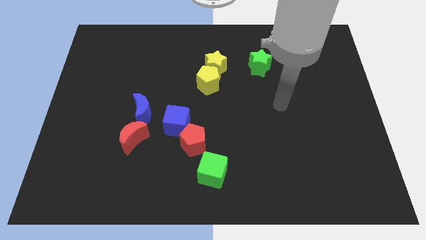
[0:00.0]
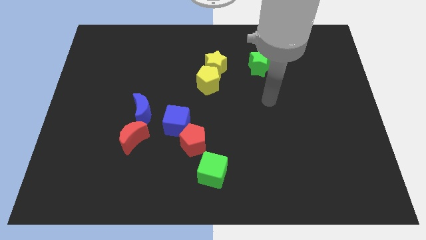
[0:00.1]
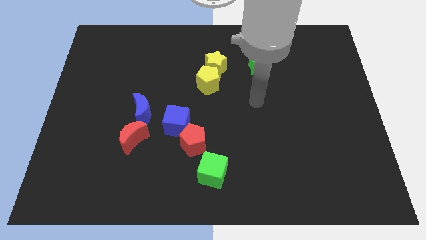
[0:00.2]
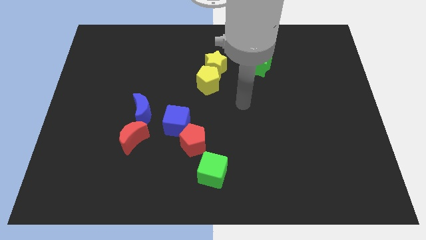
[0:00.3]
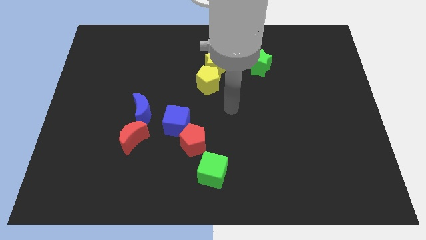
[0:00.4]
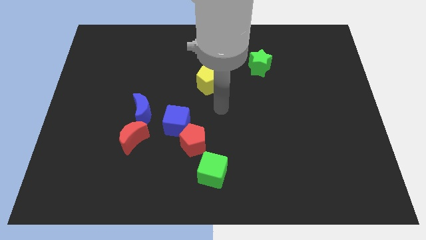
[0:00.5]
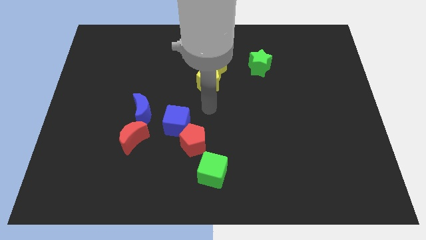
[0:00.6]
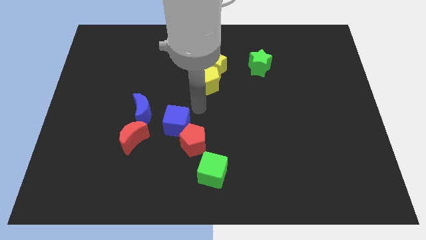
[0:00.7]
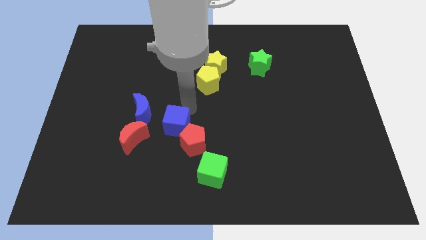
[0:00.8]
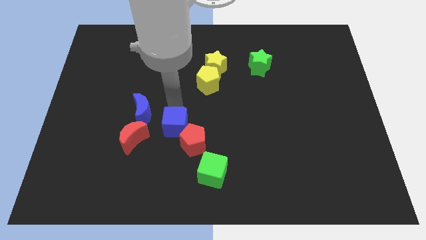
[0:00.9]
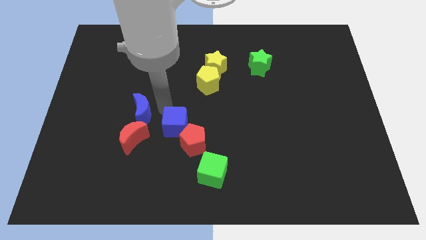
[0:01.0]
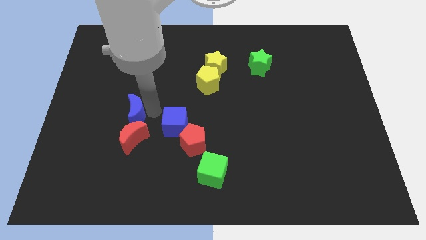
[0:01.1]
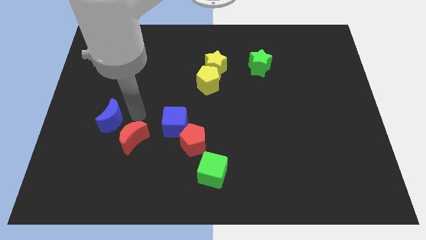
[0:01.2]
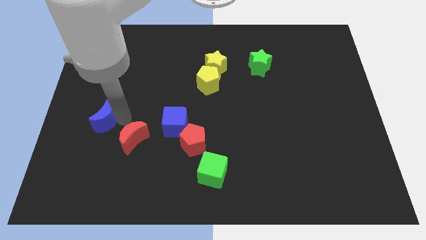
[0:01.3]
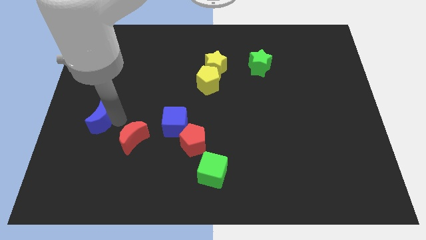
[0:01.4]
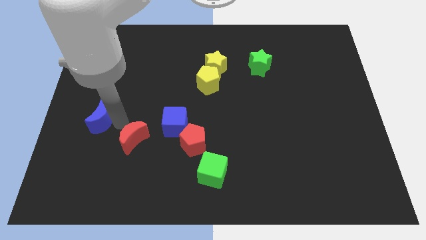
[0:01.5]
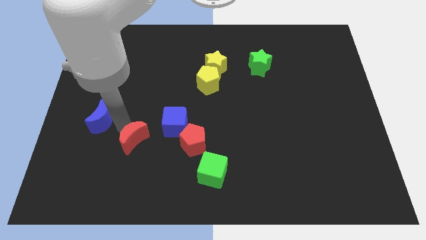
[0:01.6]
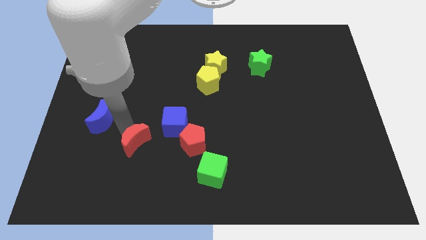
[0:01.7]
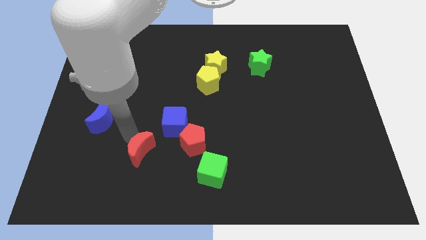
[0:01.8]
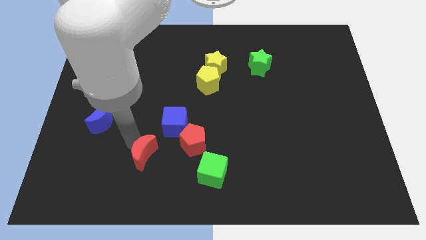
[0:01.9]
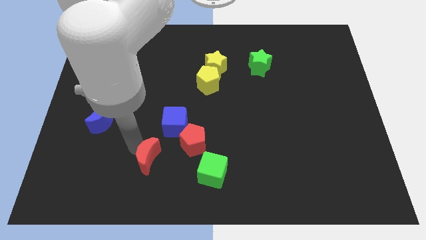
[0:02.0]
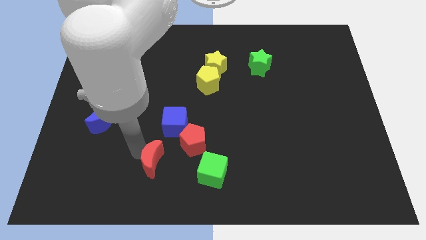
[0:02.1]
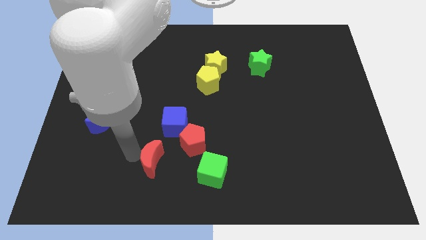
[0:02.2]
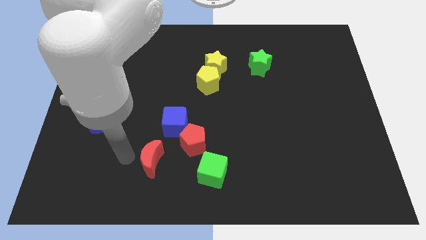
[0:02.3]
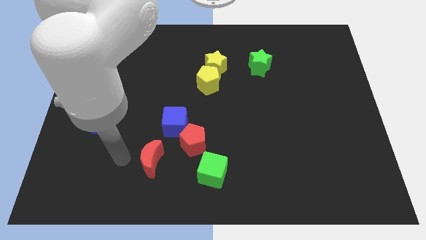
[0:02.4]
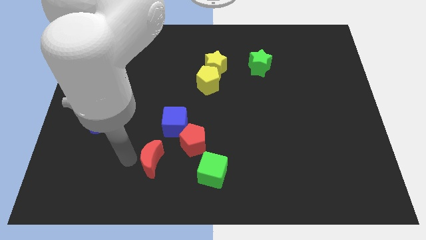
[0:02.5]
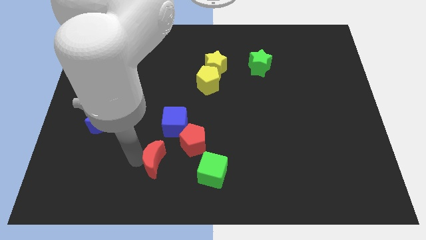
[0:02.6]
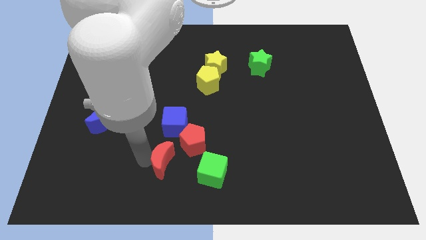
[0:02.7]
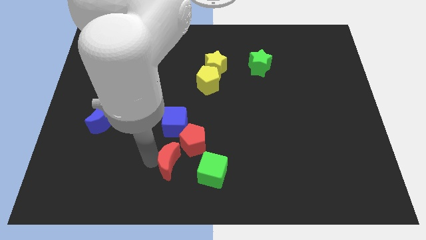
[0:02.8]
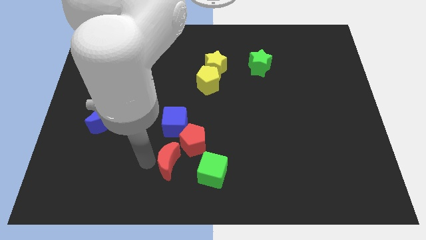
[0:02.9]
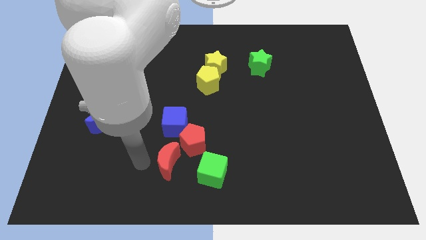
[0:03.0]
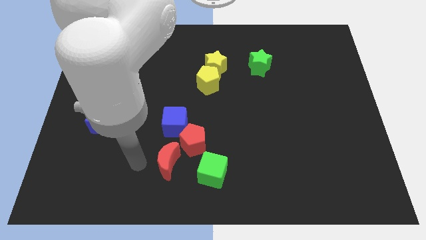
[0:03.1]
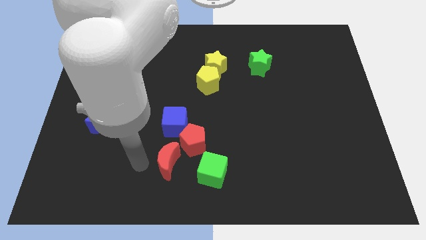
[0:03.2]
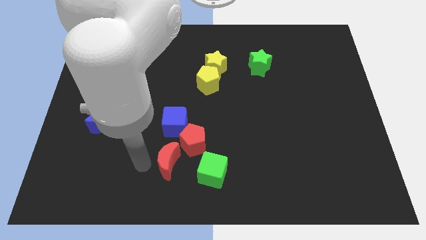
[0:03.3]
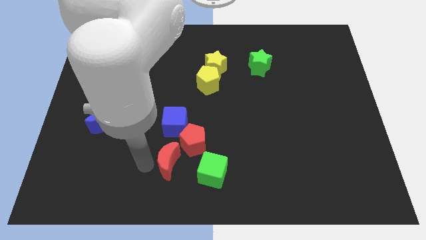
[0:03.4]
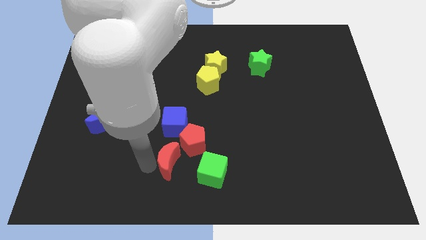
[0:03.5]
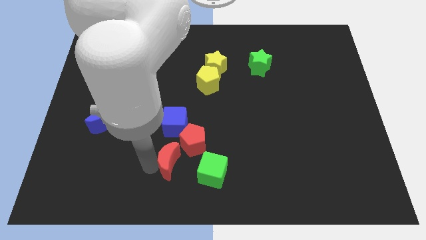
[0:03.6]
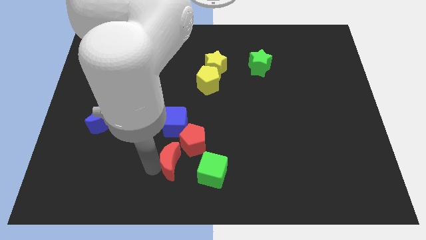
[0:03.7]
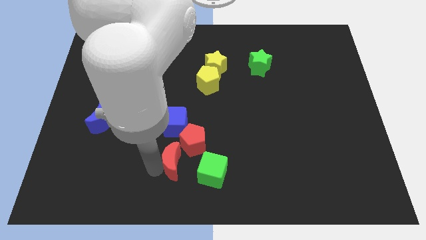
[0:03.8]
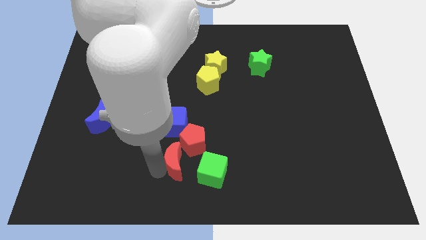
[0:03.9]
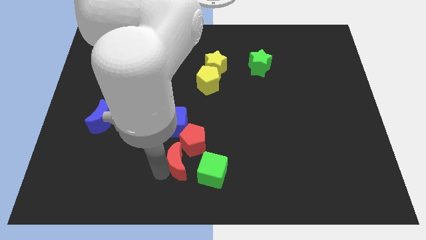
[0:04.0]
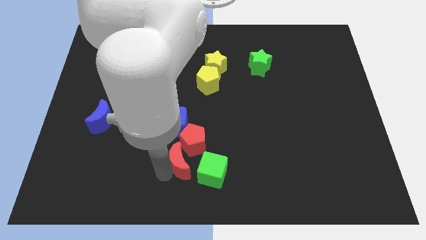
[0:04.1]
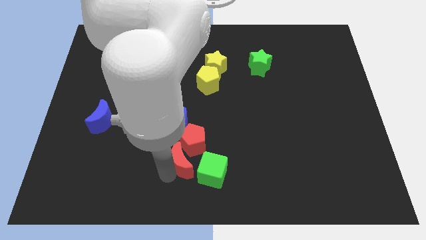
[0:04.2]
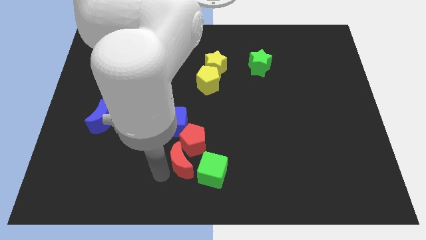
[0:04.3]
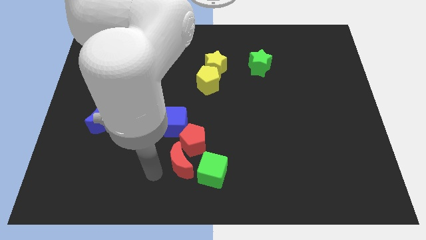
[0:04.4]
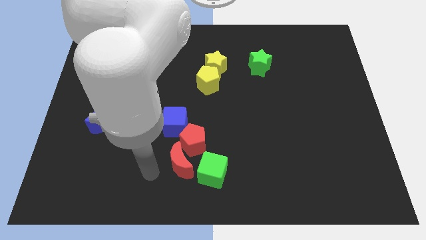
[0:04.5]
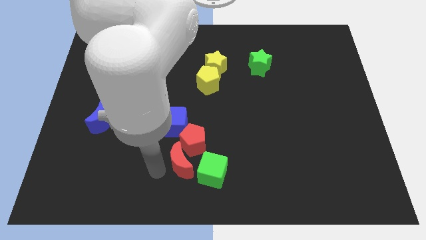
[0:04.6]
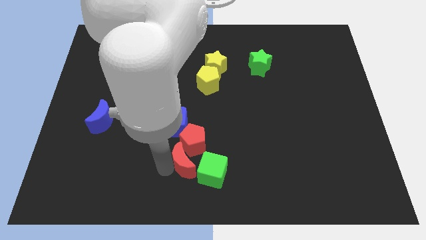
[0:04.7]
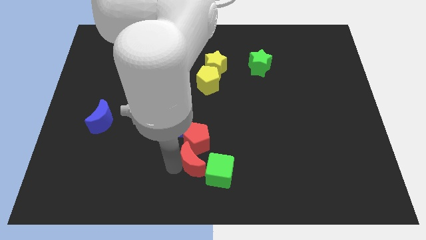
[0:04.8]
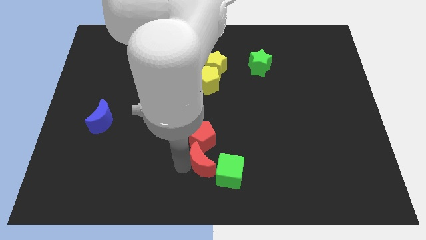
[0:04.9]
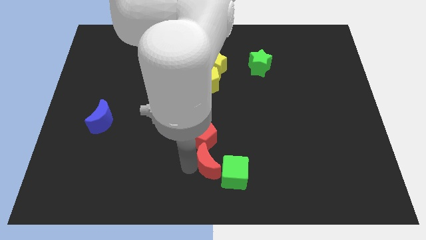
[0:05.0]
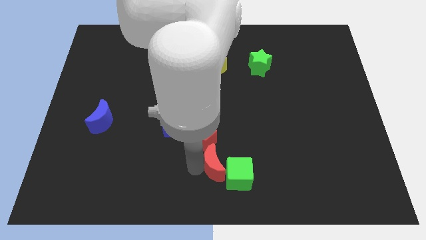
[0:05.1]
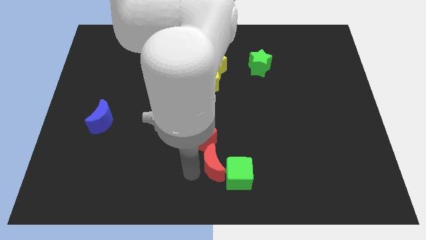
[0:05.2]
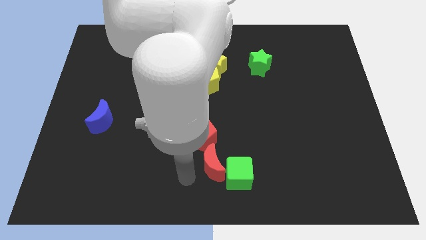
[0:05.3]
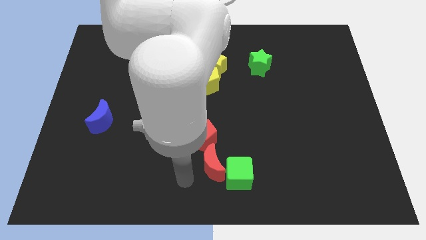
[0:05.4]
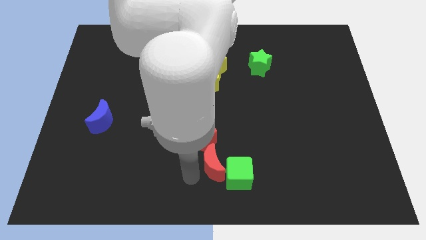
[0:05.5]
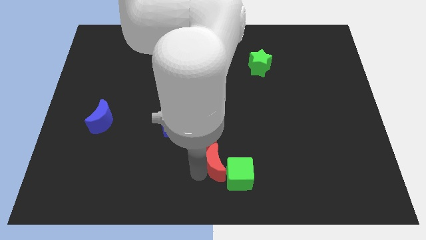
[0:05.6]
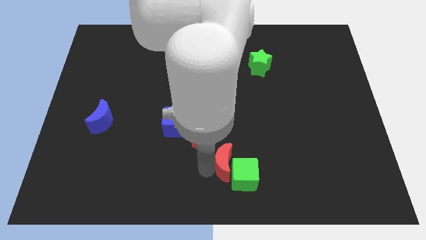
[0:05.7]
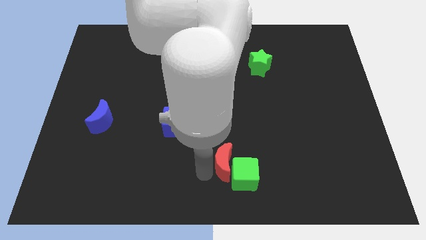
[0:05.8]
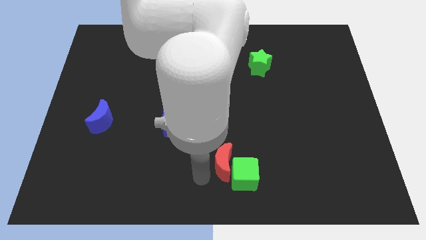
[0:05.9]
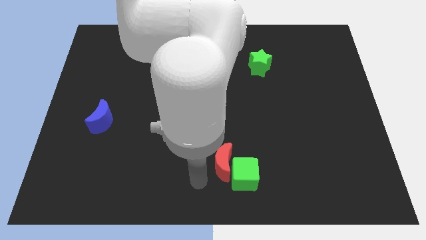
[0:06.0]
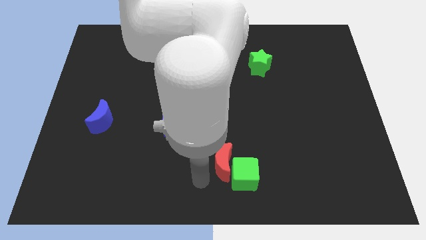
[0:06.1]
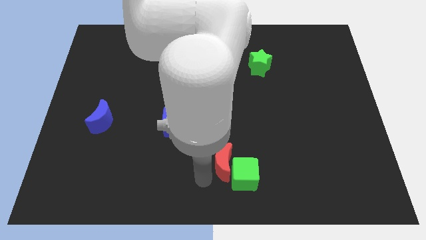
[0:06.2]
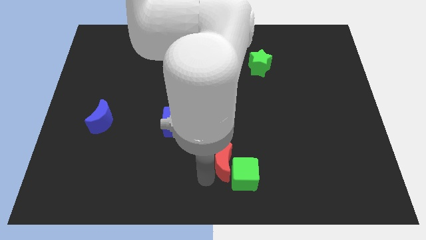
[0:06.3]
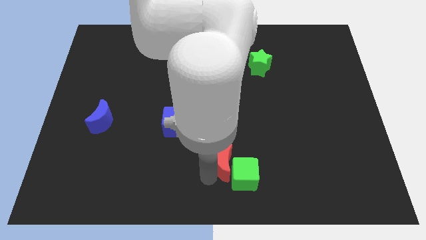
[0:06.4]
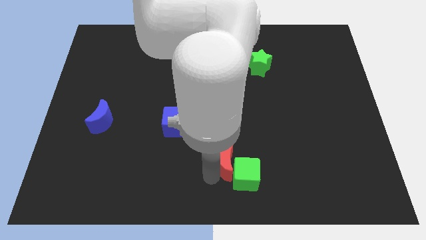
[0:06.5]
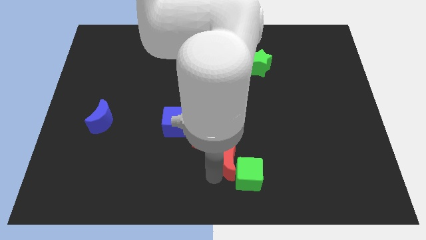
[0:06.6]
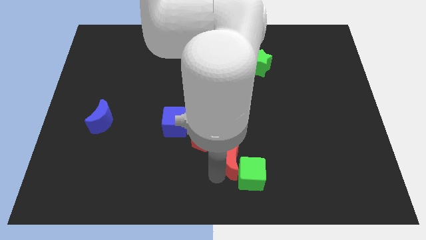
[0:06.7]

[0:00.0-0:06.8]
move the red moon right

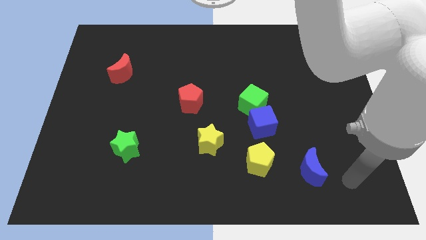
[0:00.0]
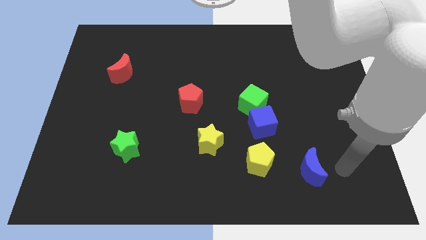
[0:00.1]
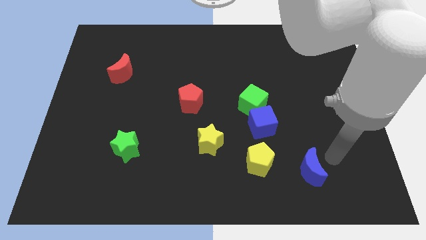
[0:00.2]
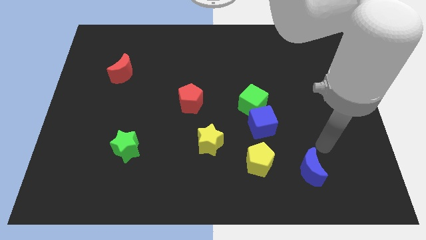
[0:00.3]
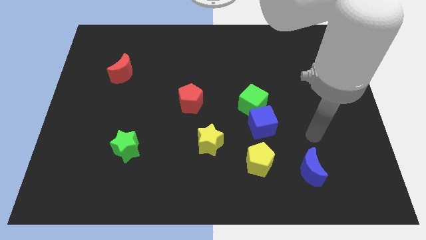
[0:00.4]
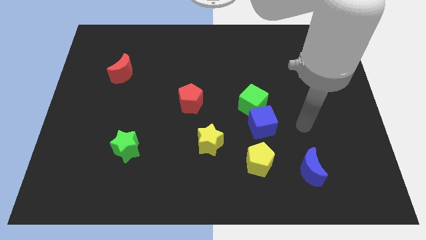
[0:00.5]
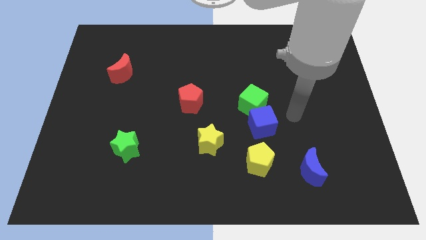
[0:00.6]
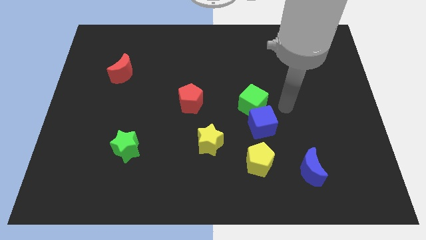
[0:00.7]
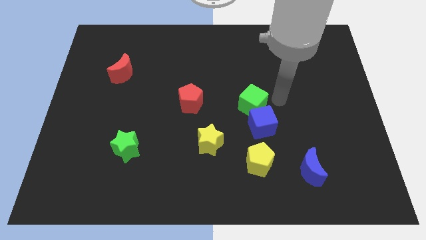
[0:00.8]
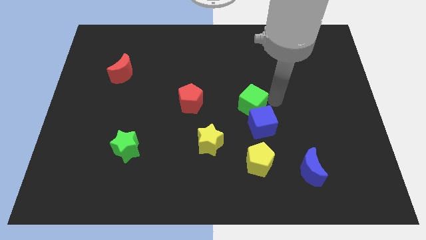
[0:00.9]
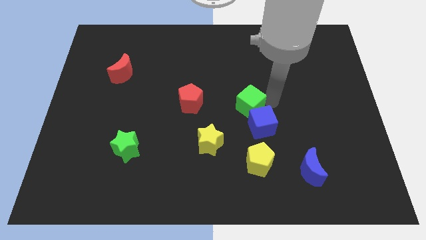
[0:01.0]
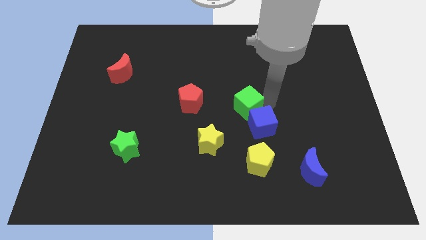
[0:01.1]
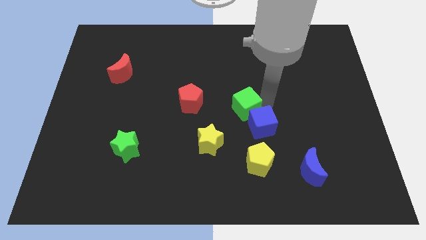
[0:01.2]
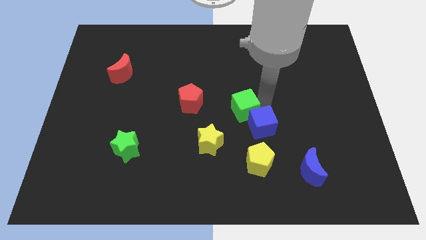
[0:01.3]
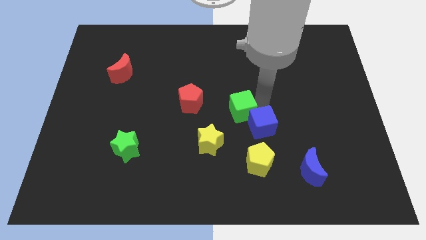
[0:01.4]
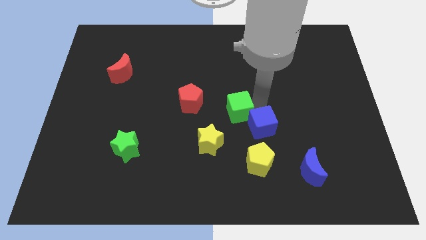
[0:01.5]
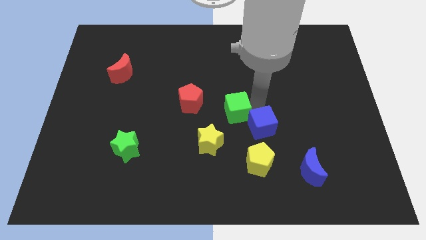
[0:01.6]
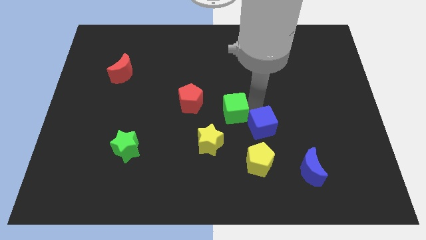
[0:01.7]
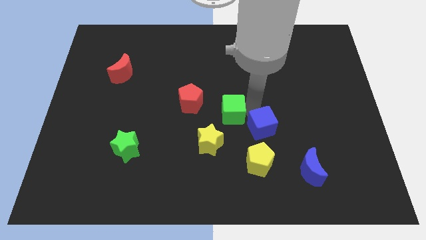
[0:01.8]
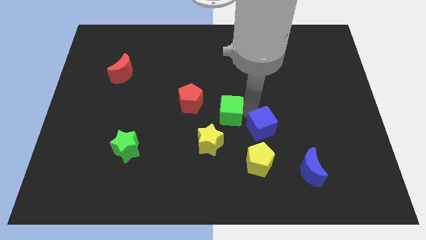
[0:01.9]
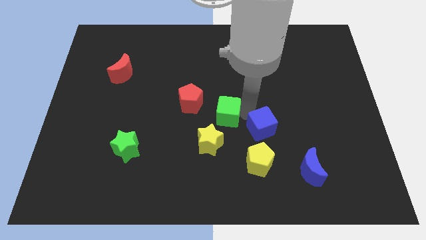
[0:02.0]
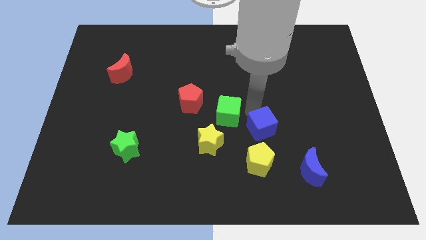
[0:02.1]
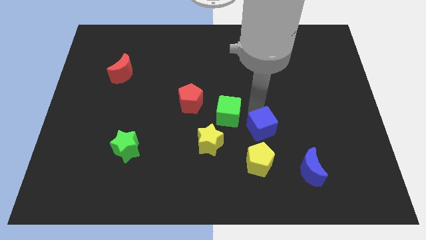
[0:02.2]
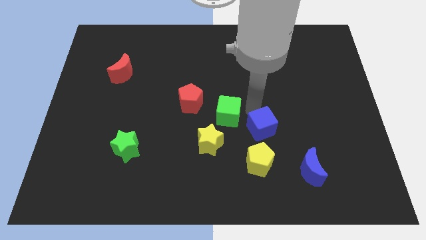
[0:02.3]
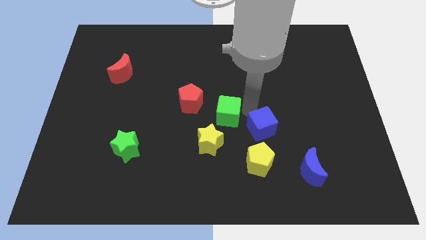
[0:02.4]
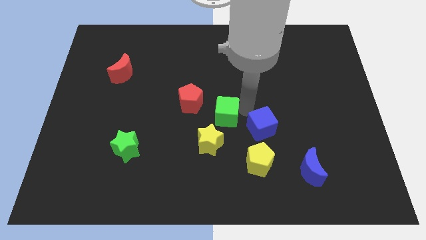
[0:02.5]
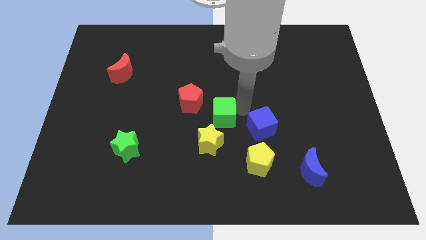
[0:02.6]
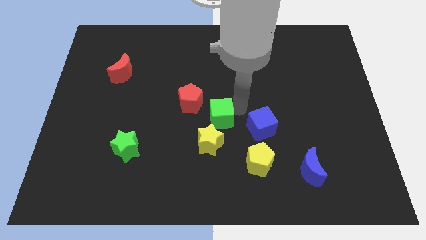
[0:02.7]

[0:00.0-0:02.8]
slightly push the green cube to the left
